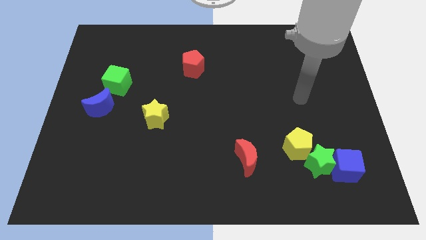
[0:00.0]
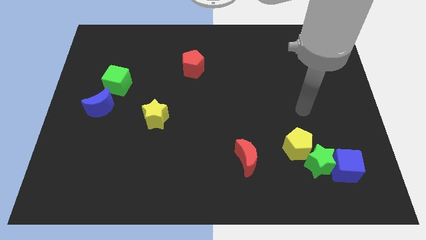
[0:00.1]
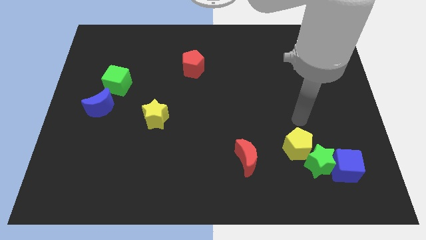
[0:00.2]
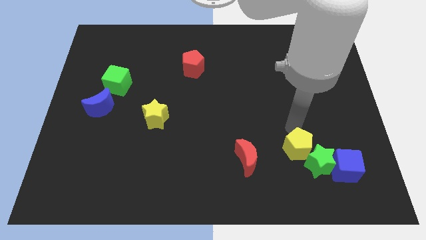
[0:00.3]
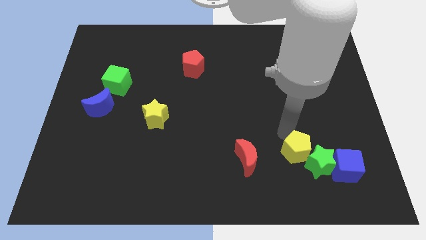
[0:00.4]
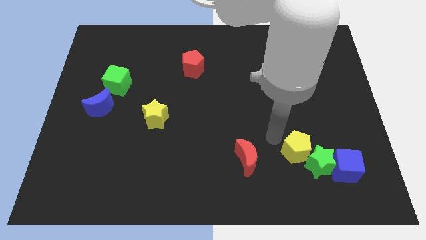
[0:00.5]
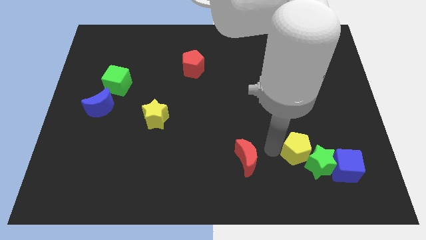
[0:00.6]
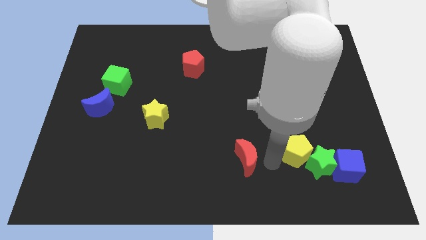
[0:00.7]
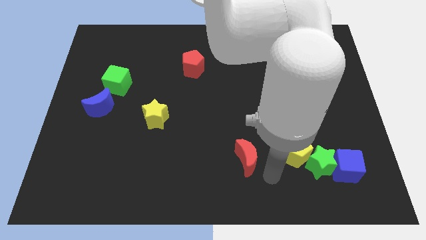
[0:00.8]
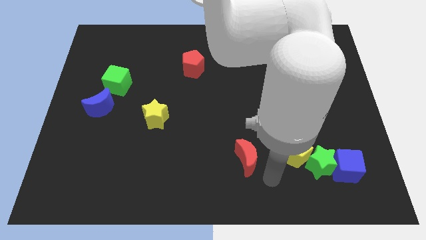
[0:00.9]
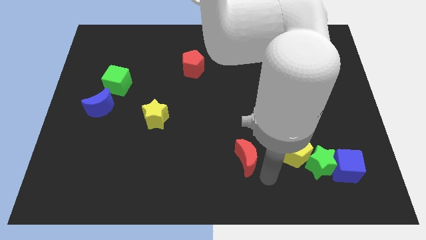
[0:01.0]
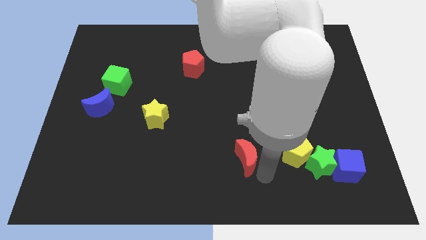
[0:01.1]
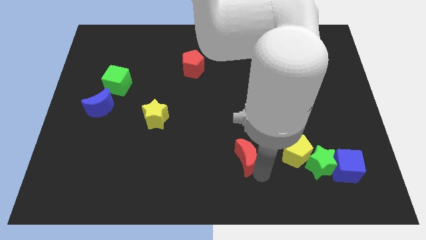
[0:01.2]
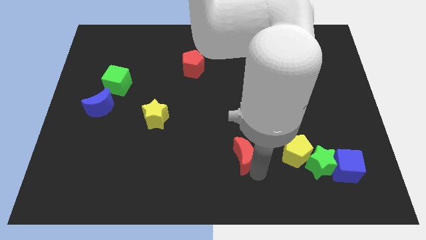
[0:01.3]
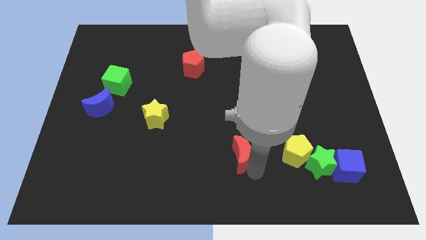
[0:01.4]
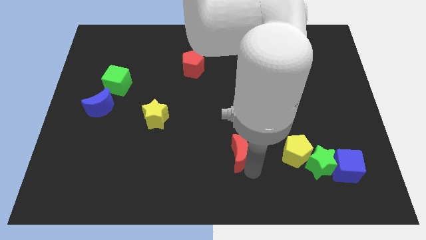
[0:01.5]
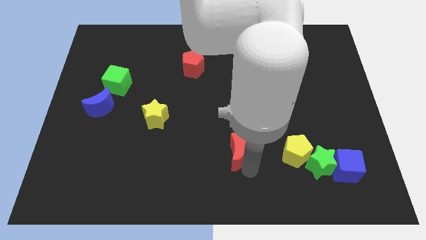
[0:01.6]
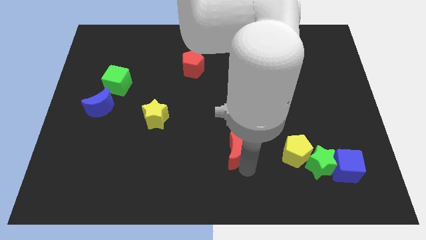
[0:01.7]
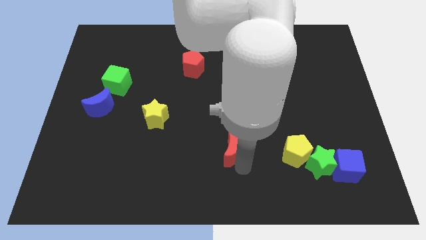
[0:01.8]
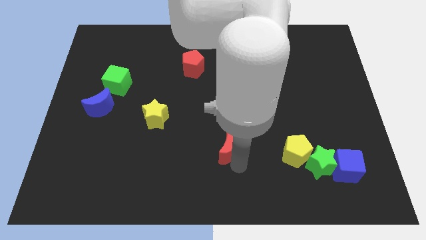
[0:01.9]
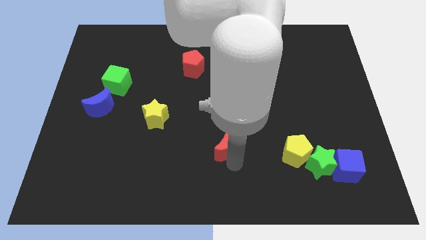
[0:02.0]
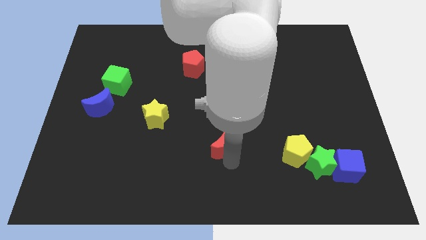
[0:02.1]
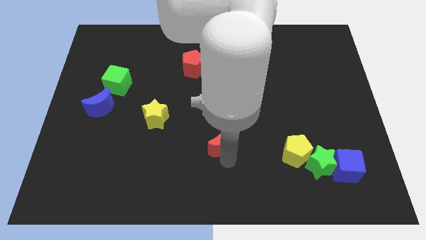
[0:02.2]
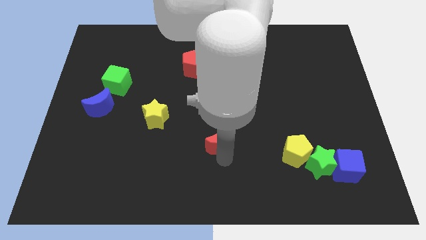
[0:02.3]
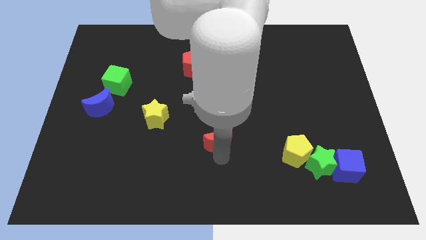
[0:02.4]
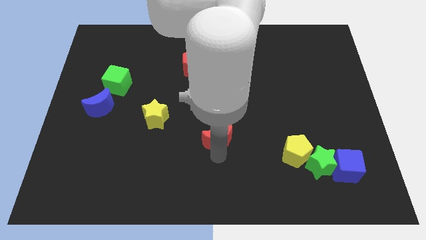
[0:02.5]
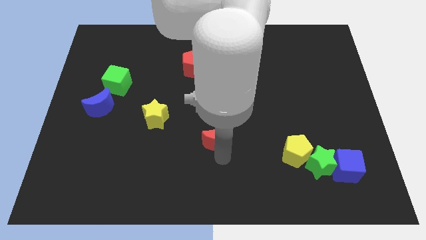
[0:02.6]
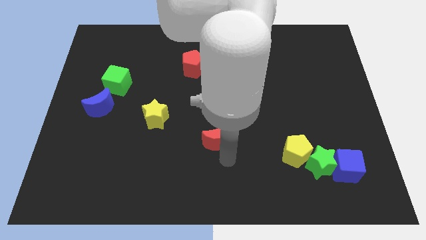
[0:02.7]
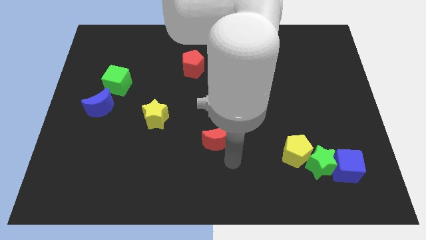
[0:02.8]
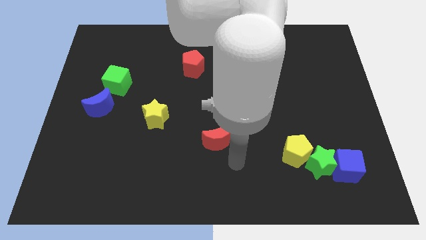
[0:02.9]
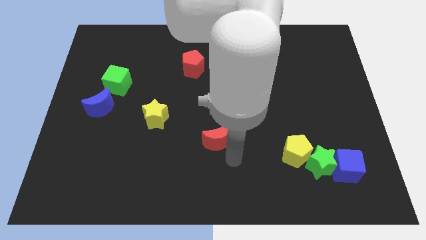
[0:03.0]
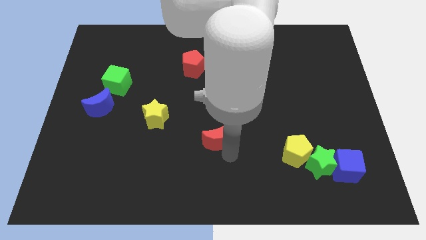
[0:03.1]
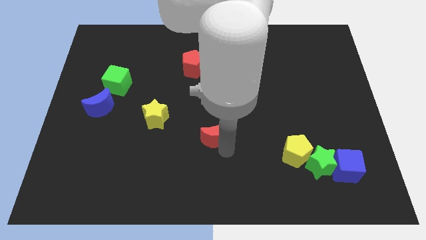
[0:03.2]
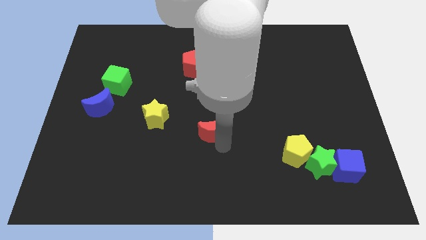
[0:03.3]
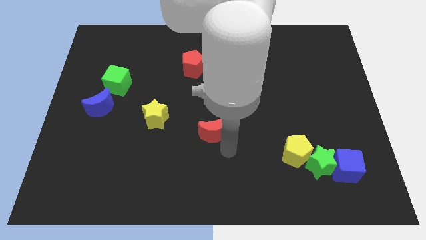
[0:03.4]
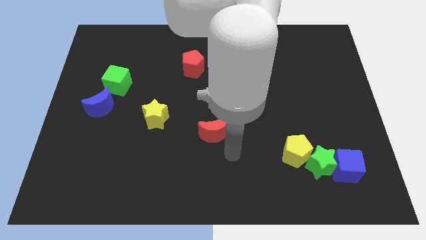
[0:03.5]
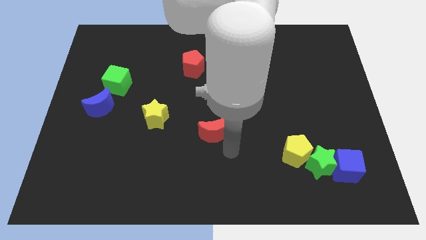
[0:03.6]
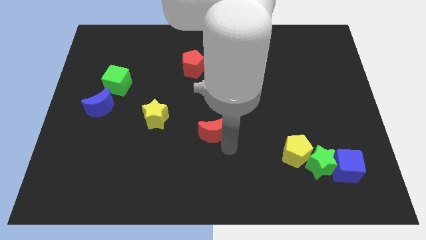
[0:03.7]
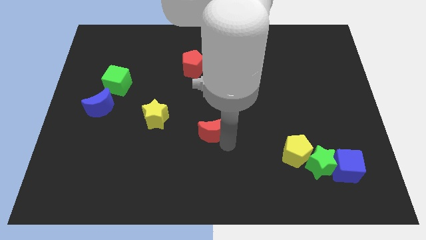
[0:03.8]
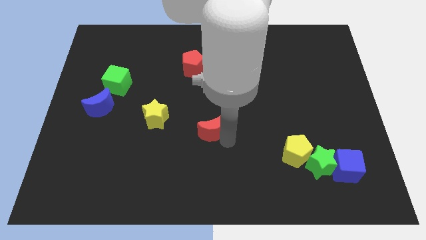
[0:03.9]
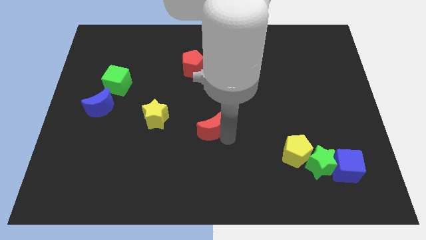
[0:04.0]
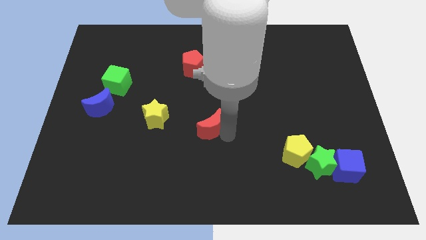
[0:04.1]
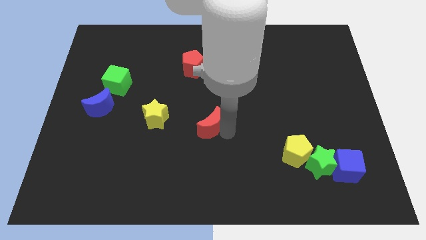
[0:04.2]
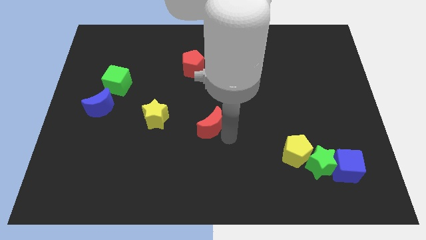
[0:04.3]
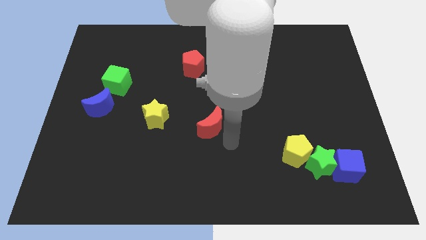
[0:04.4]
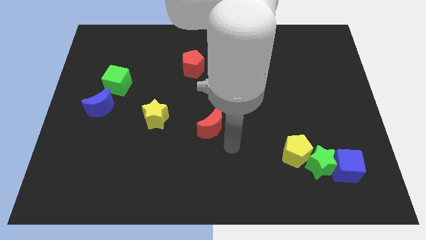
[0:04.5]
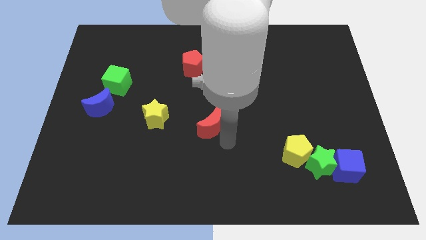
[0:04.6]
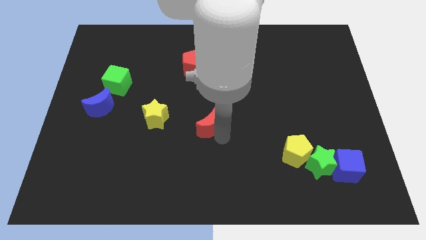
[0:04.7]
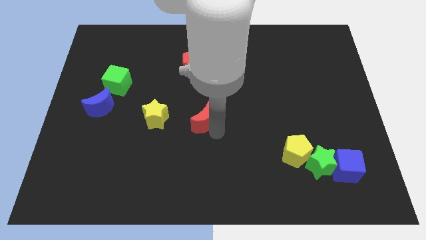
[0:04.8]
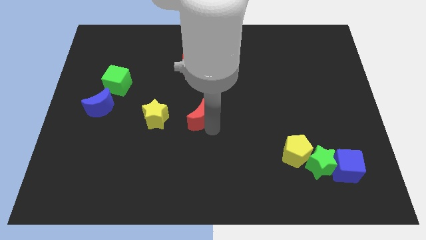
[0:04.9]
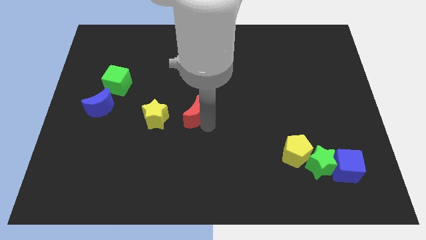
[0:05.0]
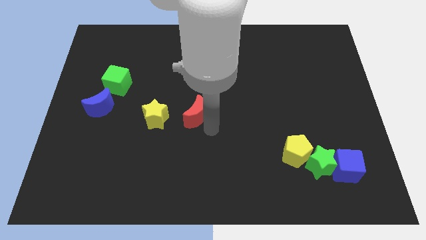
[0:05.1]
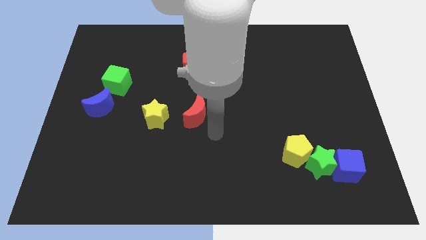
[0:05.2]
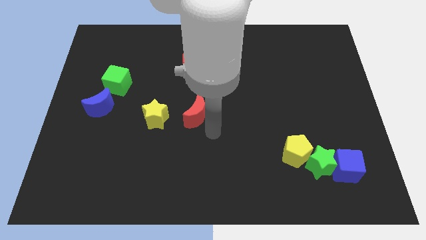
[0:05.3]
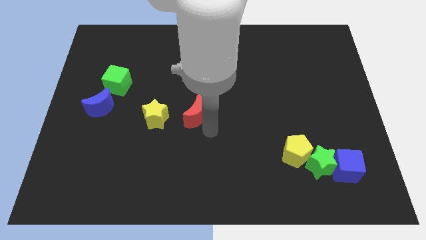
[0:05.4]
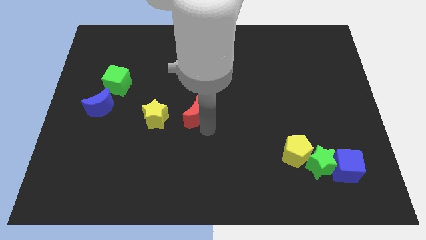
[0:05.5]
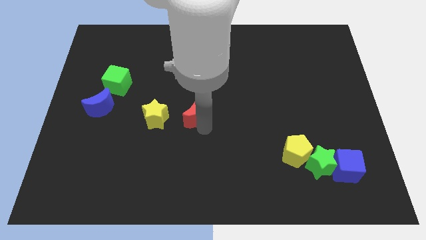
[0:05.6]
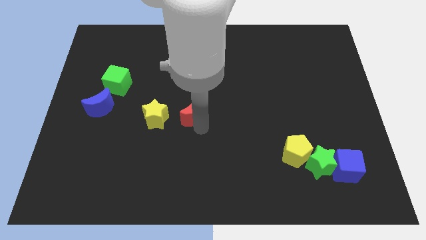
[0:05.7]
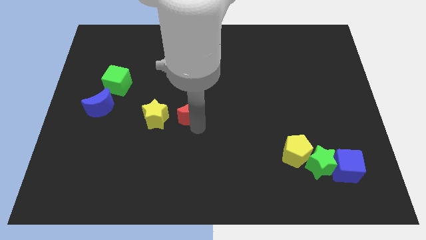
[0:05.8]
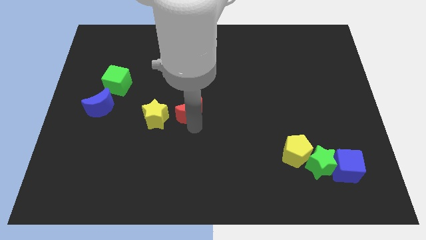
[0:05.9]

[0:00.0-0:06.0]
push the red moon to the top right of the yellow star
